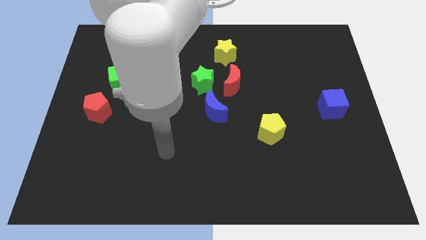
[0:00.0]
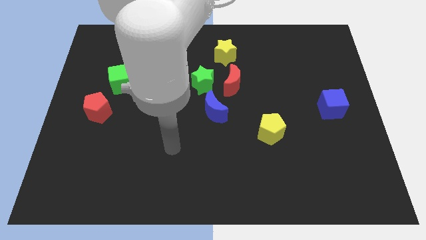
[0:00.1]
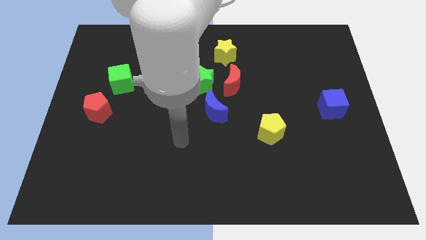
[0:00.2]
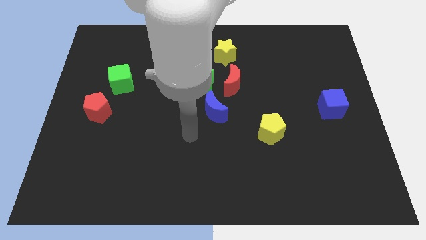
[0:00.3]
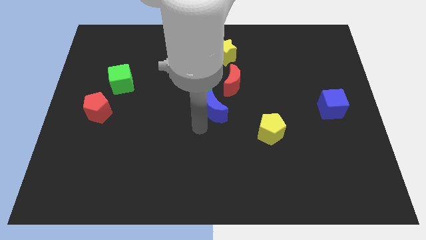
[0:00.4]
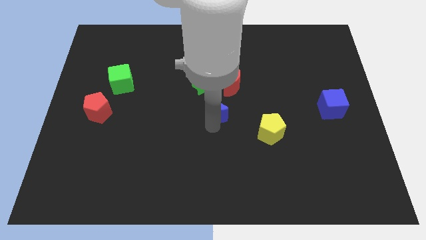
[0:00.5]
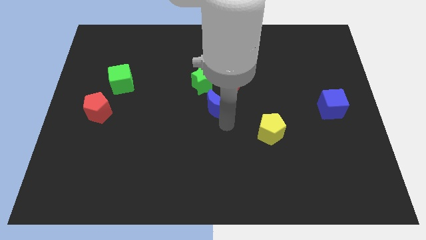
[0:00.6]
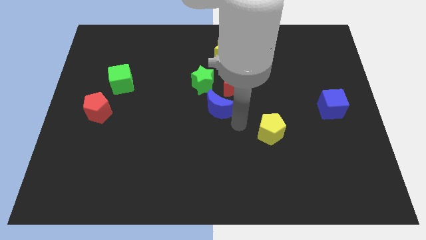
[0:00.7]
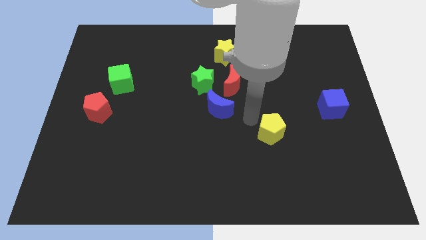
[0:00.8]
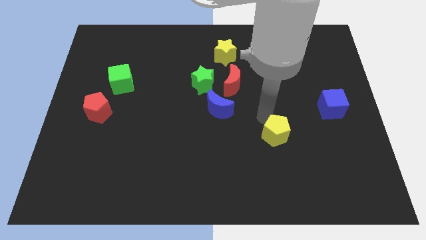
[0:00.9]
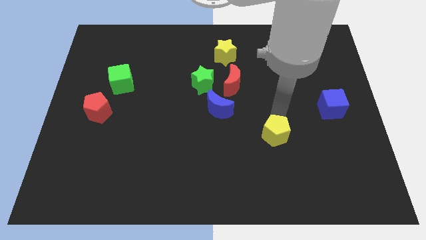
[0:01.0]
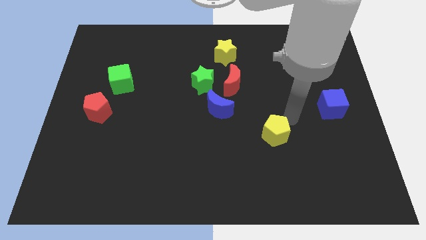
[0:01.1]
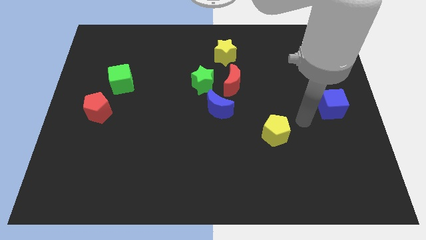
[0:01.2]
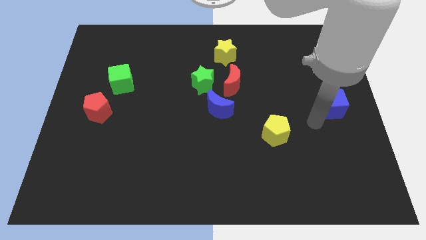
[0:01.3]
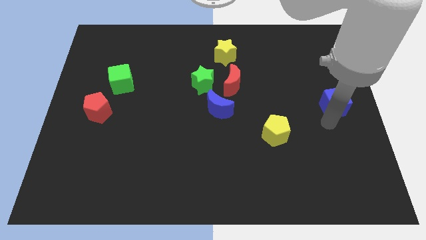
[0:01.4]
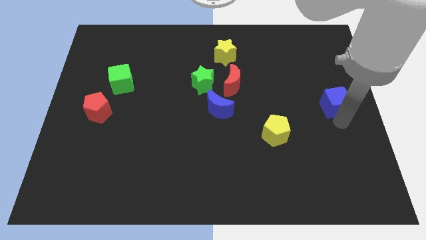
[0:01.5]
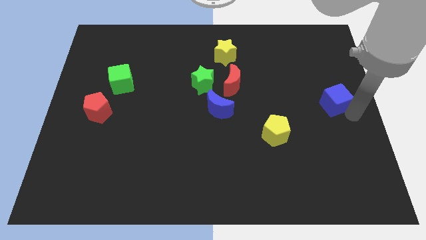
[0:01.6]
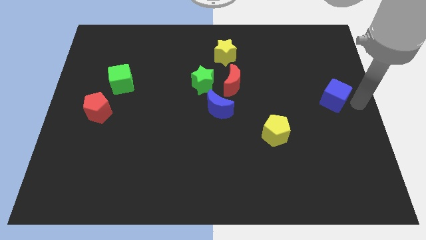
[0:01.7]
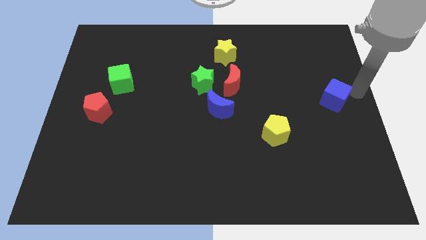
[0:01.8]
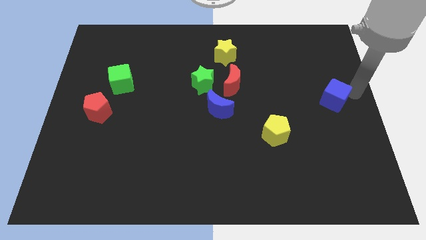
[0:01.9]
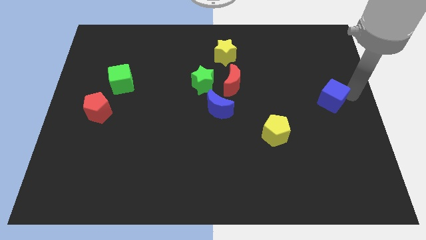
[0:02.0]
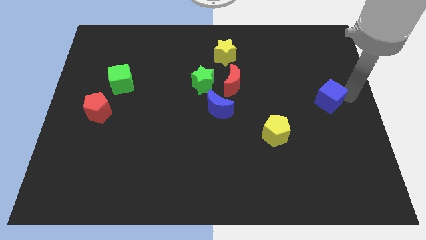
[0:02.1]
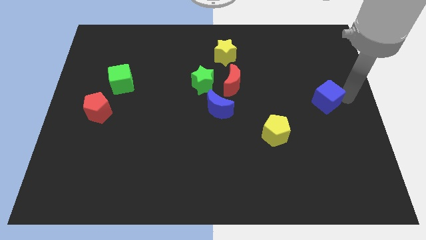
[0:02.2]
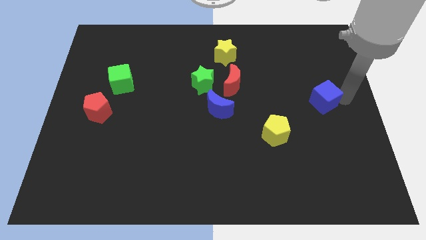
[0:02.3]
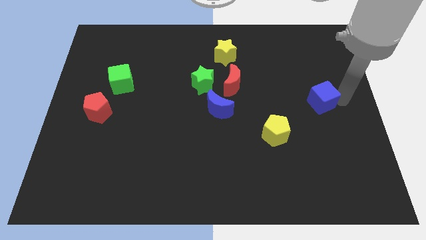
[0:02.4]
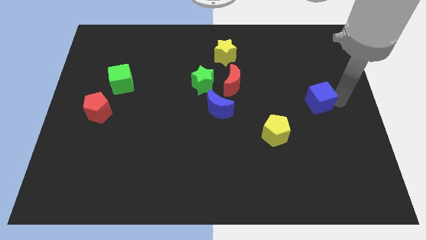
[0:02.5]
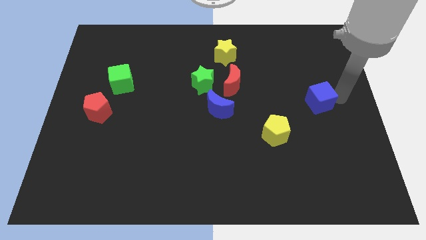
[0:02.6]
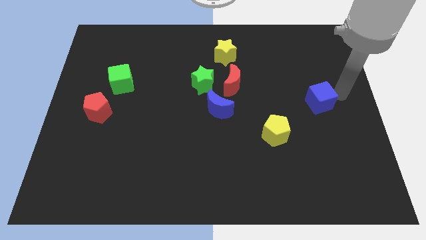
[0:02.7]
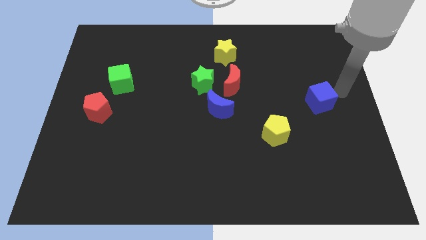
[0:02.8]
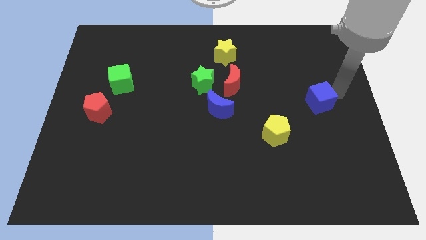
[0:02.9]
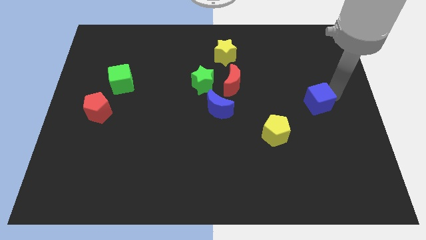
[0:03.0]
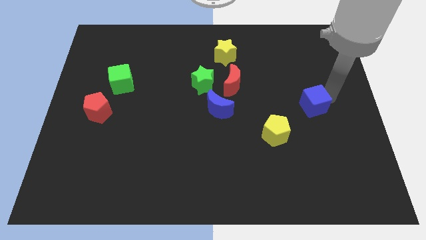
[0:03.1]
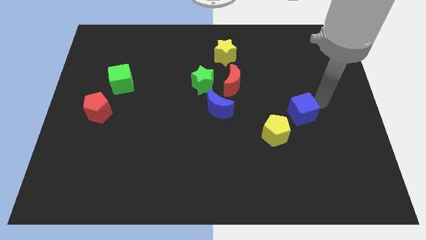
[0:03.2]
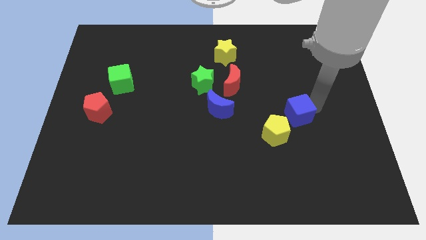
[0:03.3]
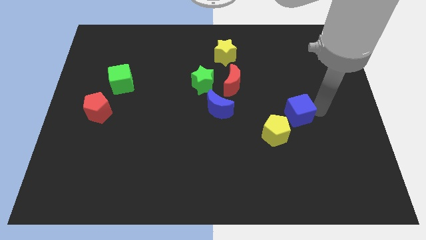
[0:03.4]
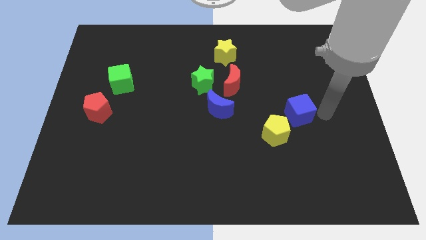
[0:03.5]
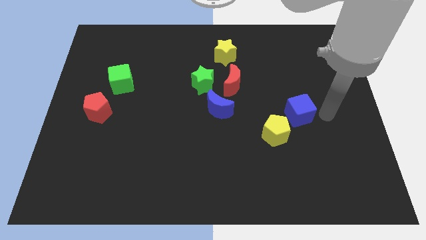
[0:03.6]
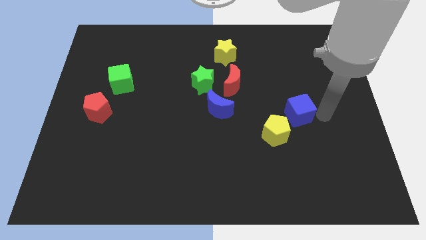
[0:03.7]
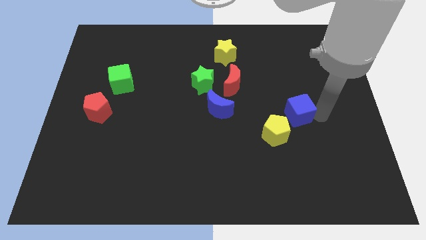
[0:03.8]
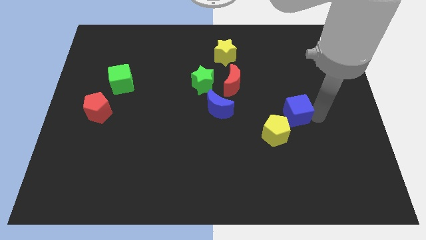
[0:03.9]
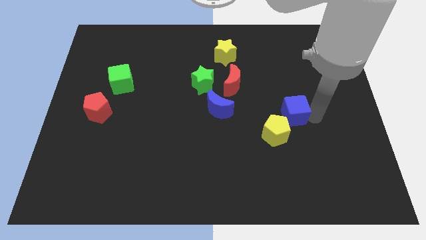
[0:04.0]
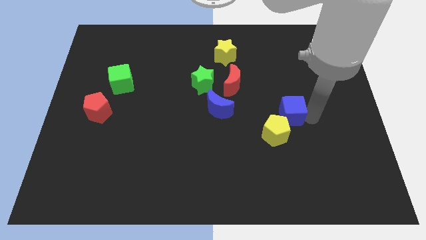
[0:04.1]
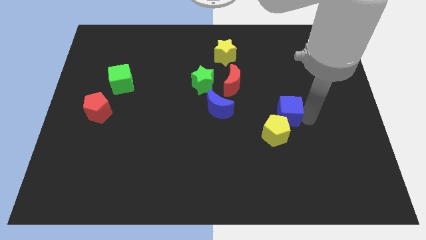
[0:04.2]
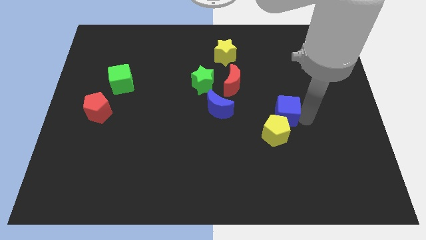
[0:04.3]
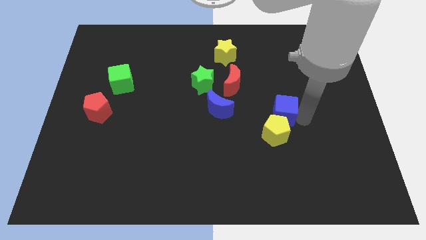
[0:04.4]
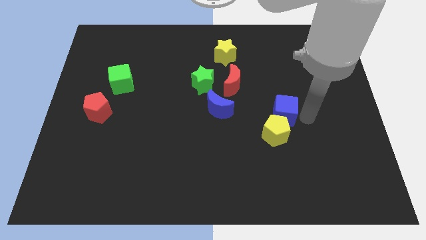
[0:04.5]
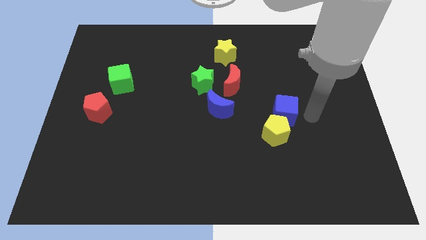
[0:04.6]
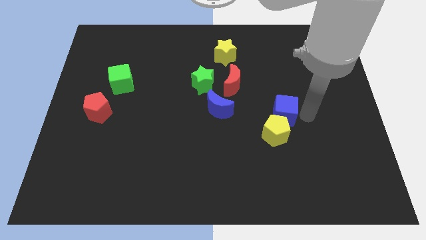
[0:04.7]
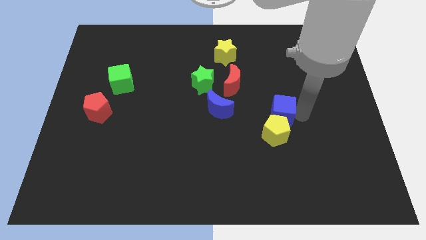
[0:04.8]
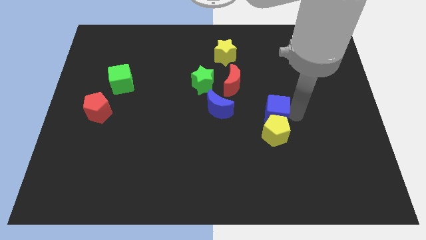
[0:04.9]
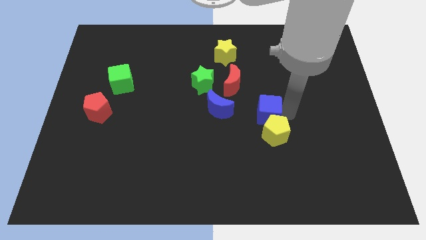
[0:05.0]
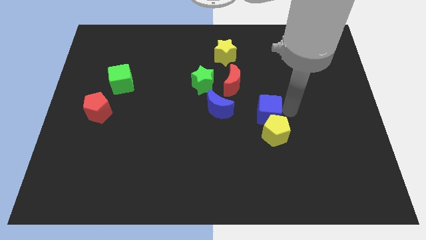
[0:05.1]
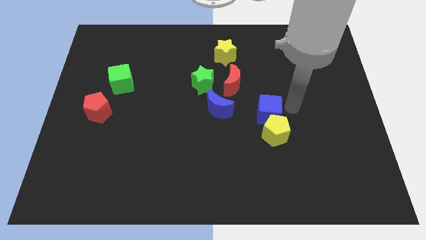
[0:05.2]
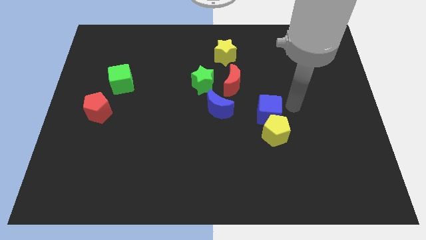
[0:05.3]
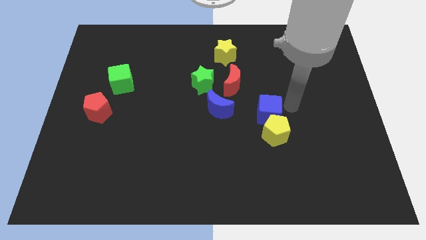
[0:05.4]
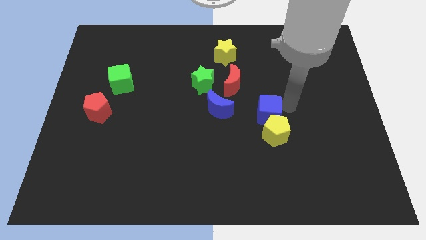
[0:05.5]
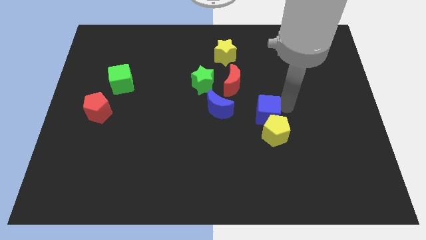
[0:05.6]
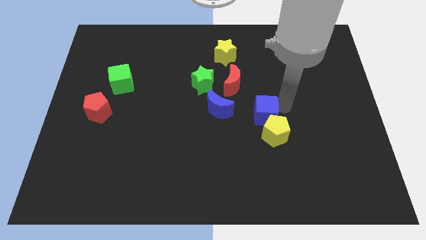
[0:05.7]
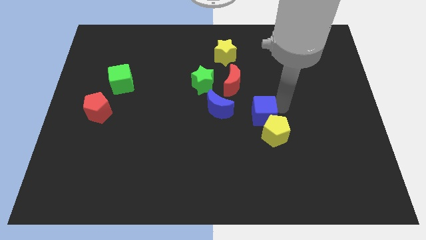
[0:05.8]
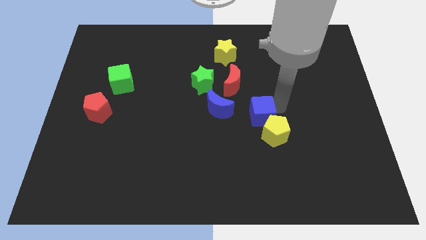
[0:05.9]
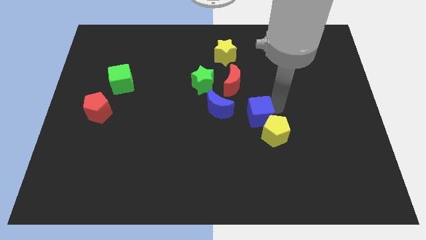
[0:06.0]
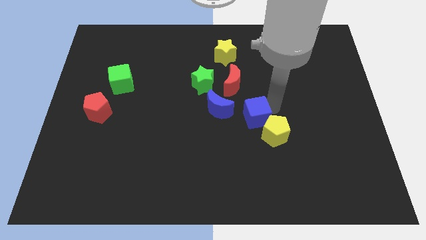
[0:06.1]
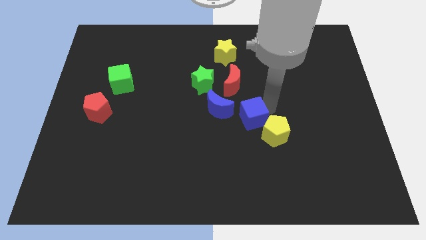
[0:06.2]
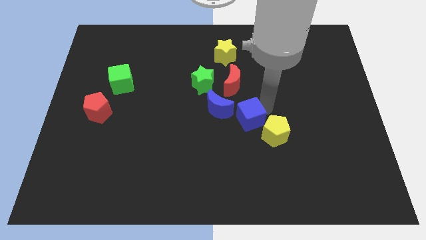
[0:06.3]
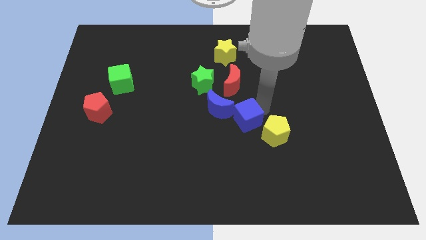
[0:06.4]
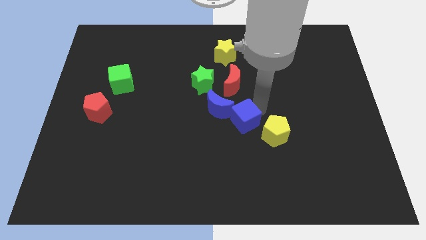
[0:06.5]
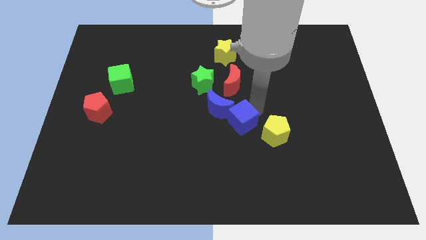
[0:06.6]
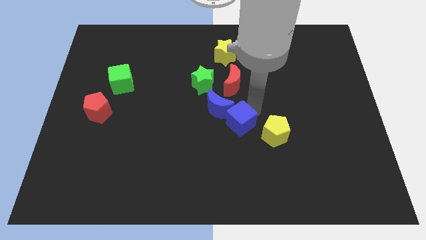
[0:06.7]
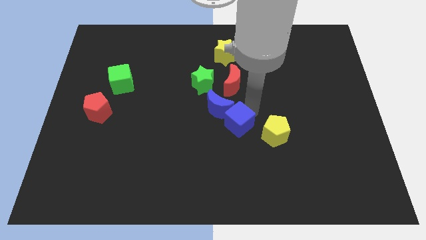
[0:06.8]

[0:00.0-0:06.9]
push the blue cube to the bottom of the blue moon
